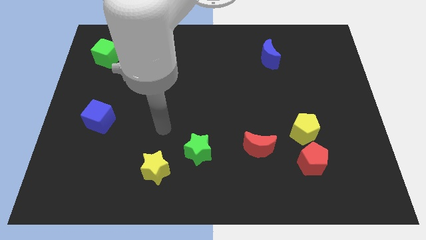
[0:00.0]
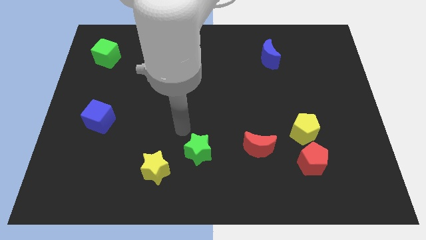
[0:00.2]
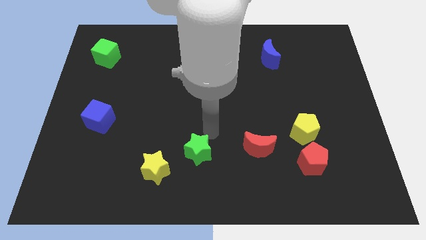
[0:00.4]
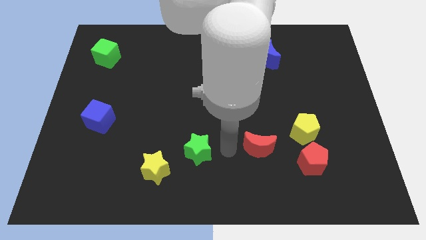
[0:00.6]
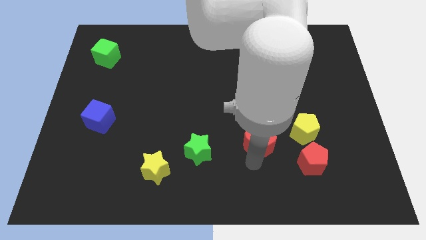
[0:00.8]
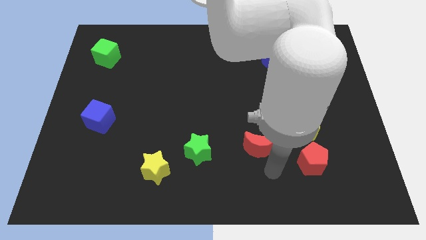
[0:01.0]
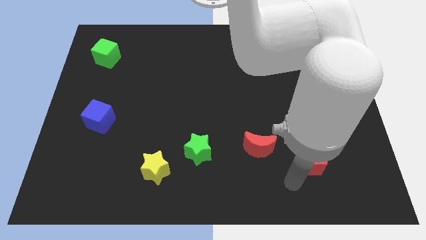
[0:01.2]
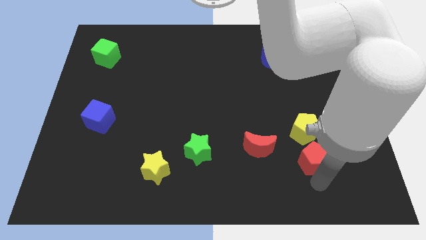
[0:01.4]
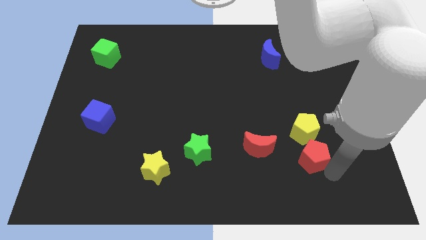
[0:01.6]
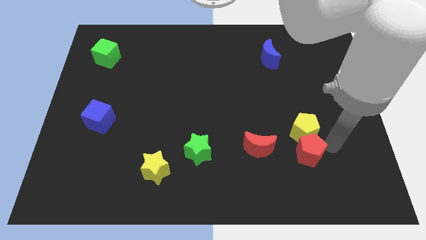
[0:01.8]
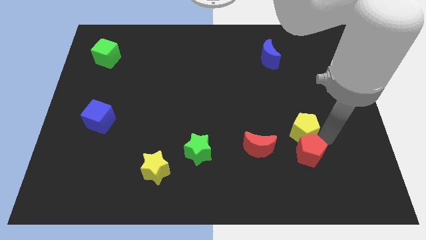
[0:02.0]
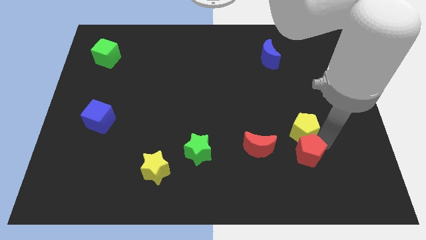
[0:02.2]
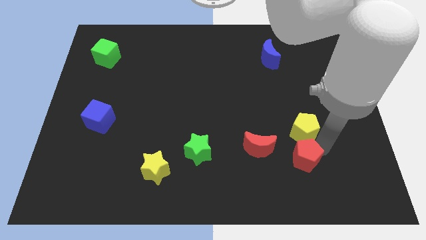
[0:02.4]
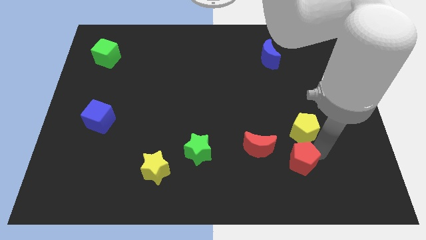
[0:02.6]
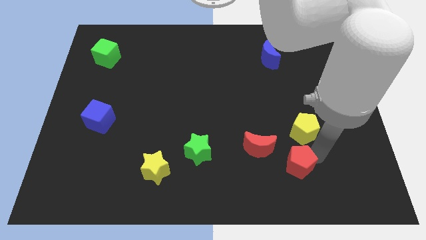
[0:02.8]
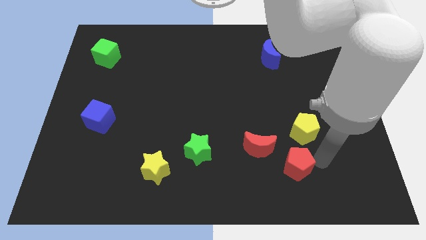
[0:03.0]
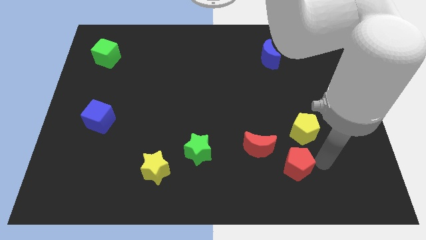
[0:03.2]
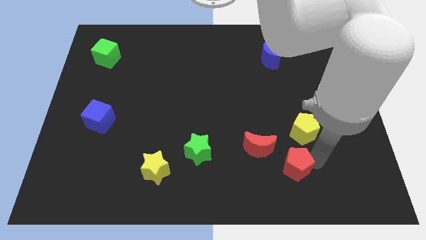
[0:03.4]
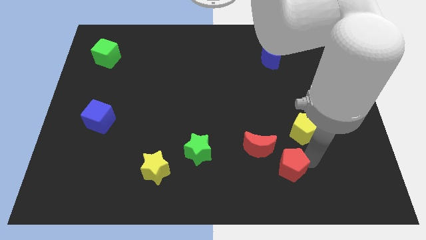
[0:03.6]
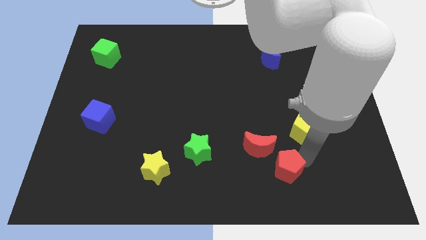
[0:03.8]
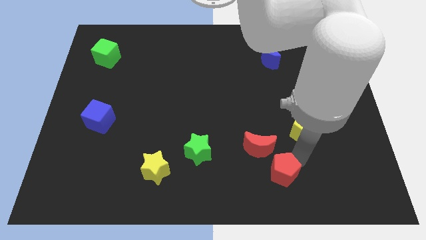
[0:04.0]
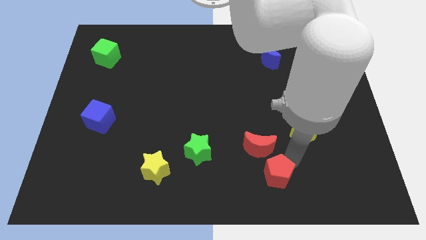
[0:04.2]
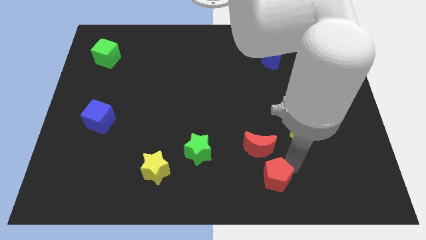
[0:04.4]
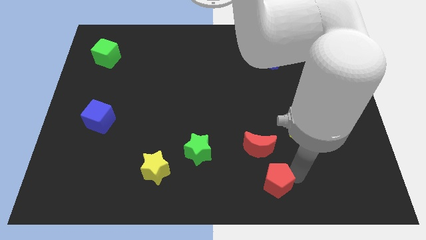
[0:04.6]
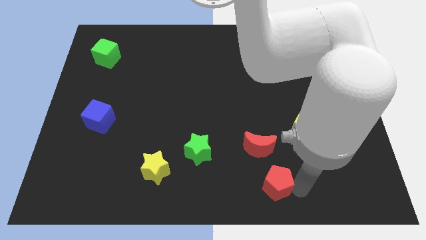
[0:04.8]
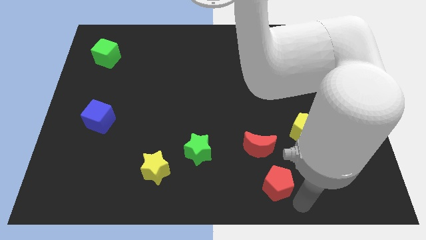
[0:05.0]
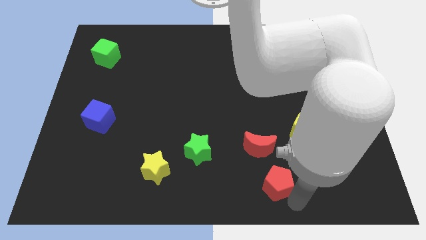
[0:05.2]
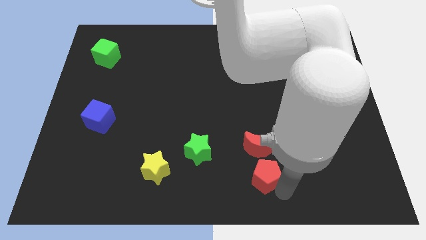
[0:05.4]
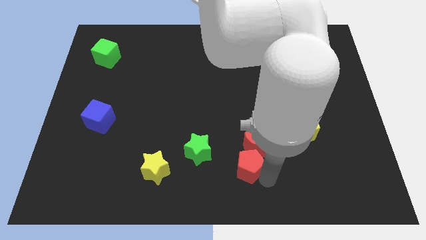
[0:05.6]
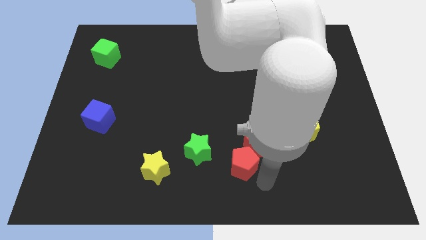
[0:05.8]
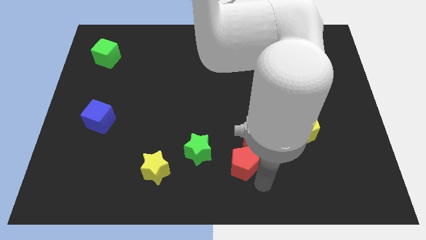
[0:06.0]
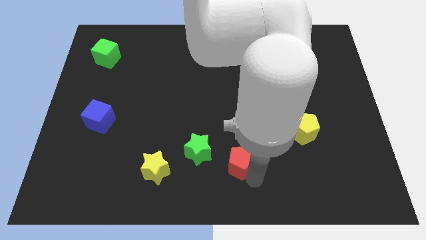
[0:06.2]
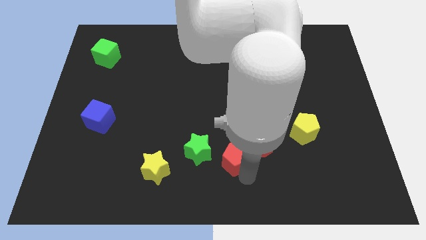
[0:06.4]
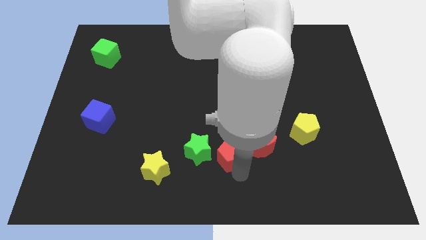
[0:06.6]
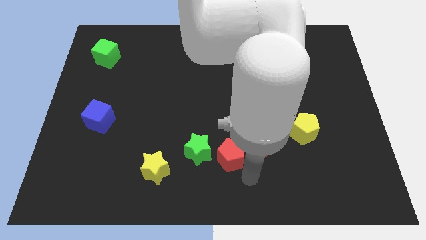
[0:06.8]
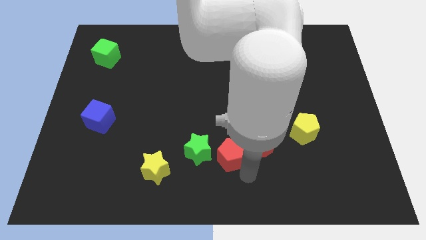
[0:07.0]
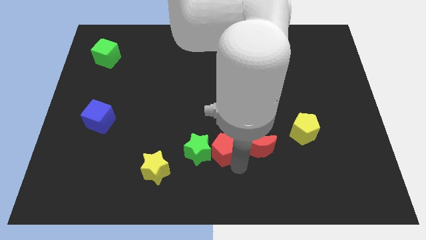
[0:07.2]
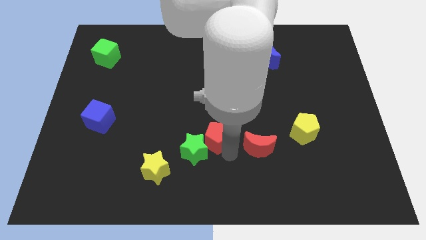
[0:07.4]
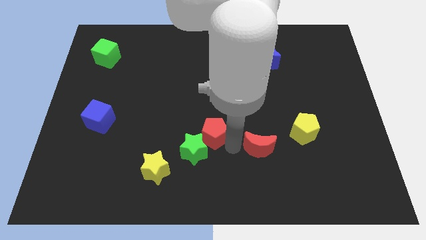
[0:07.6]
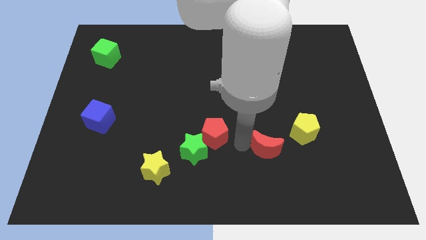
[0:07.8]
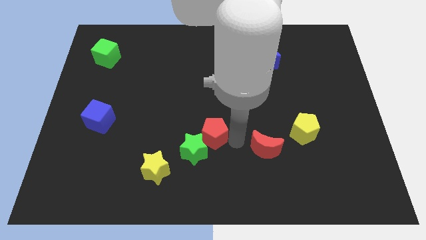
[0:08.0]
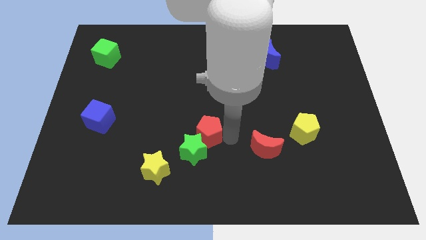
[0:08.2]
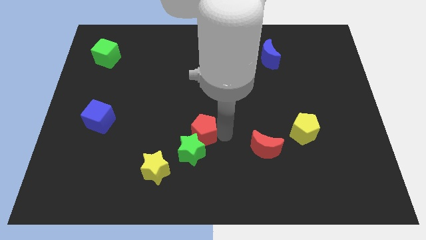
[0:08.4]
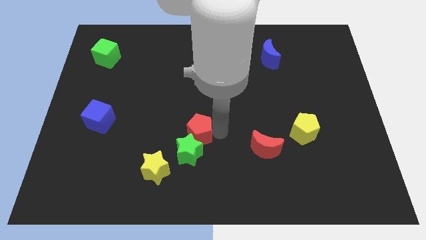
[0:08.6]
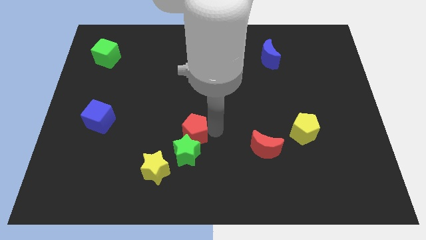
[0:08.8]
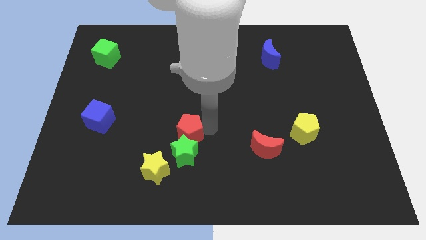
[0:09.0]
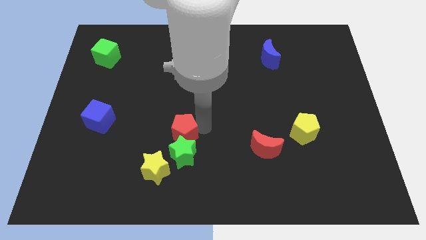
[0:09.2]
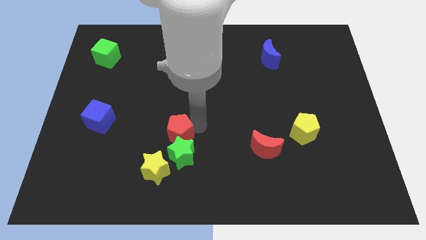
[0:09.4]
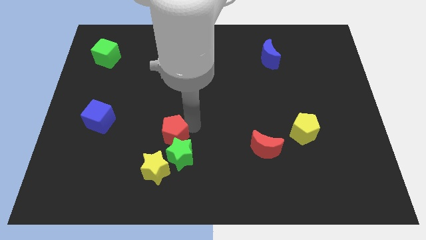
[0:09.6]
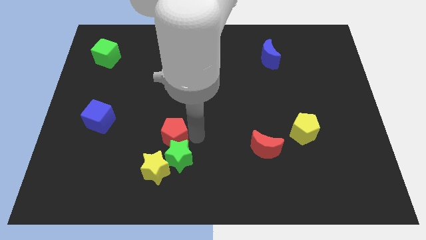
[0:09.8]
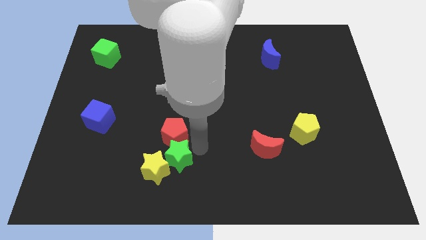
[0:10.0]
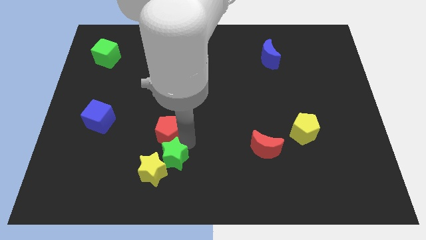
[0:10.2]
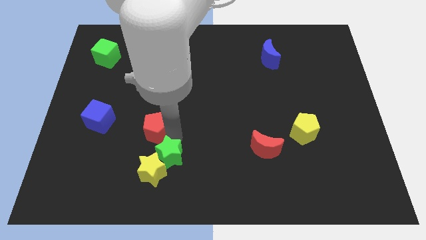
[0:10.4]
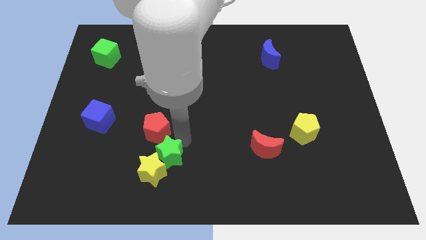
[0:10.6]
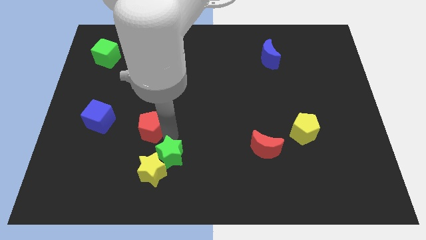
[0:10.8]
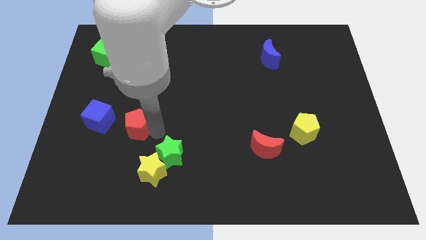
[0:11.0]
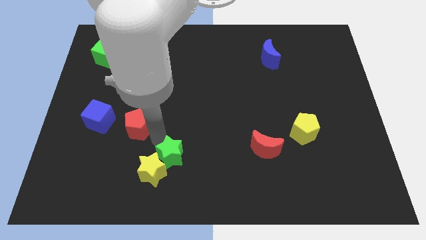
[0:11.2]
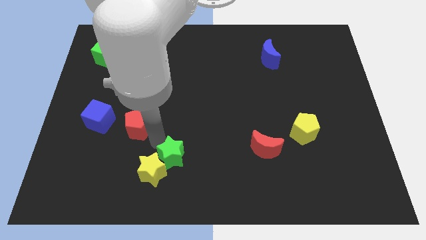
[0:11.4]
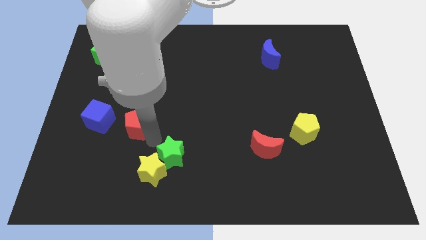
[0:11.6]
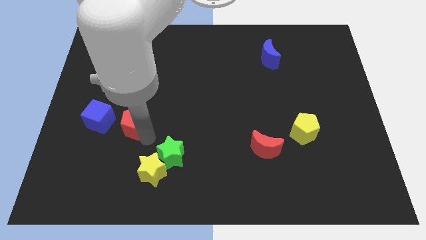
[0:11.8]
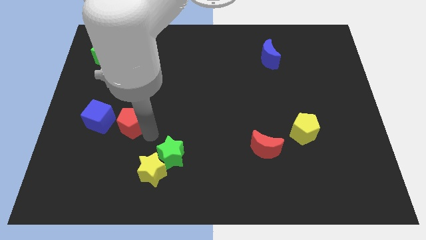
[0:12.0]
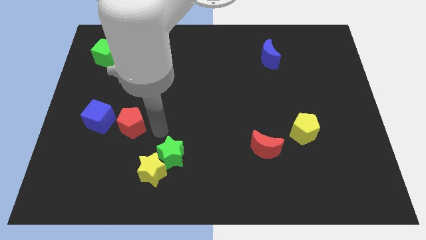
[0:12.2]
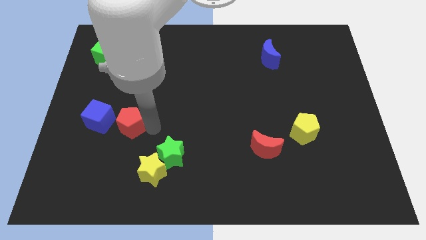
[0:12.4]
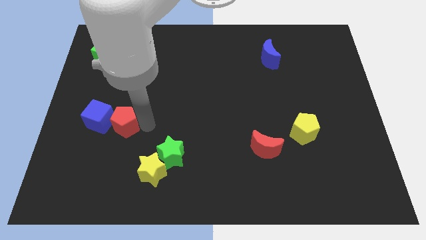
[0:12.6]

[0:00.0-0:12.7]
slide the red pentagon close to the blue cube

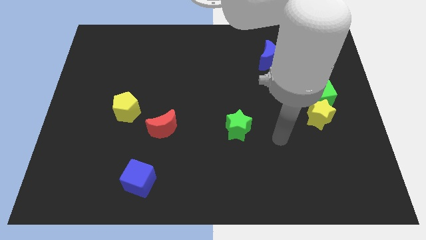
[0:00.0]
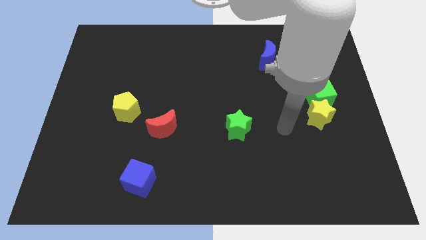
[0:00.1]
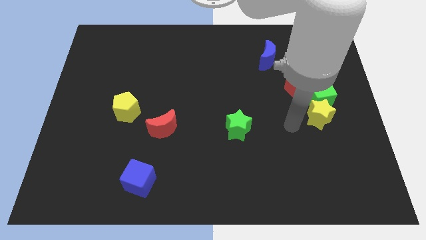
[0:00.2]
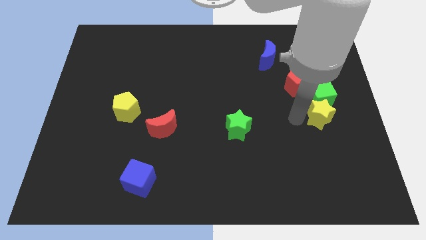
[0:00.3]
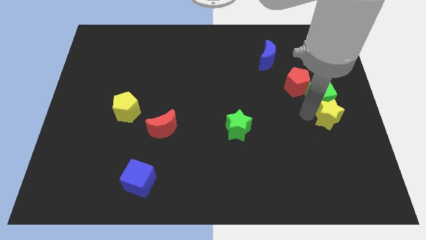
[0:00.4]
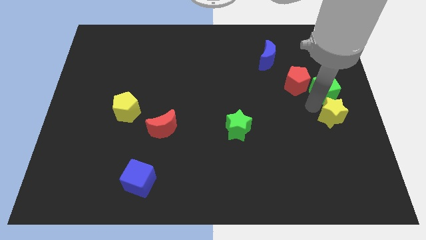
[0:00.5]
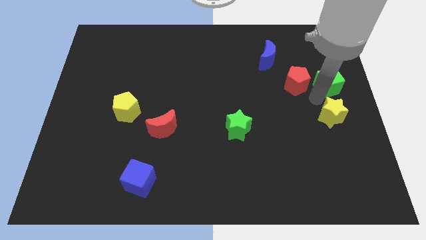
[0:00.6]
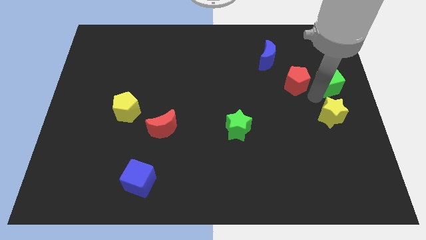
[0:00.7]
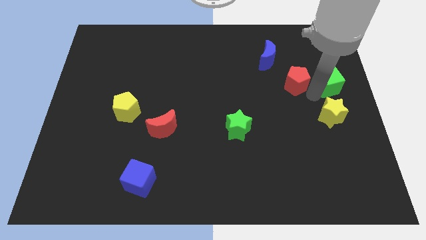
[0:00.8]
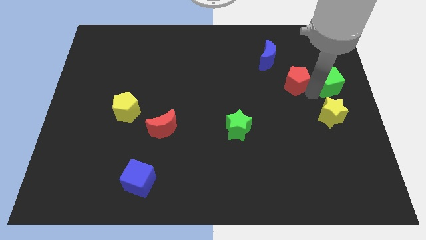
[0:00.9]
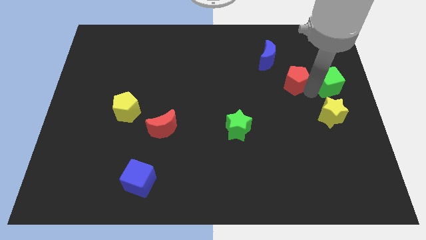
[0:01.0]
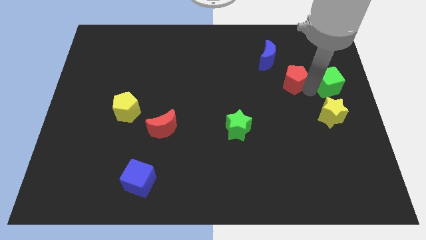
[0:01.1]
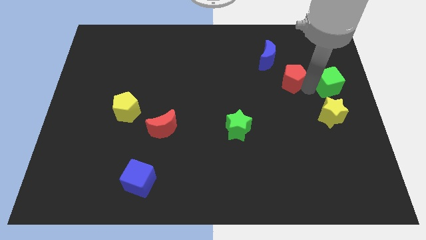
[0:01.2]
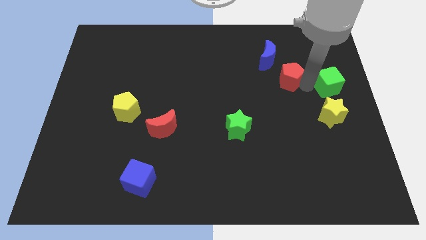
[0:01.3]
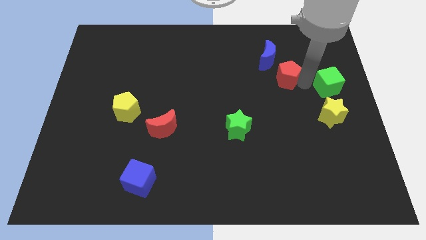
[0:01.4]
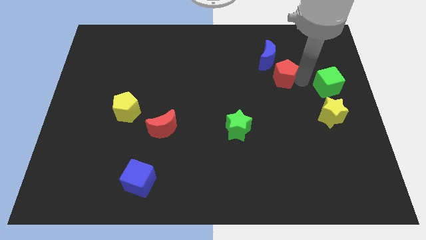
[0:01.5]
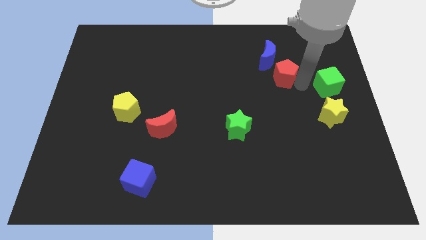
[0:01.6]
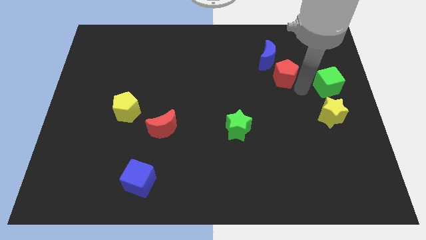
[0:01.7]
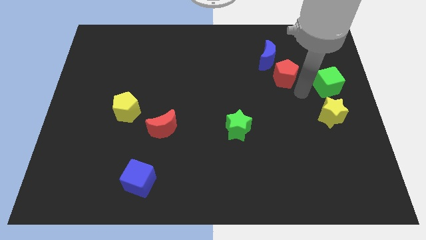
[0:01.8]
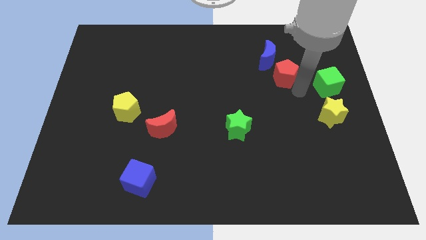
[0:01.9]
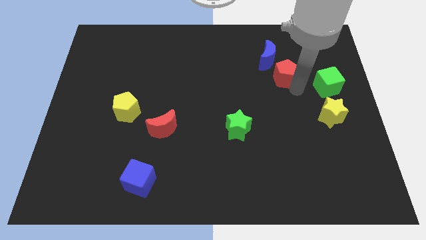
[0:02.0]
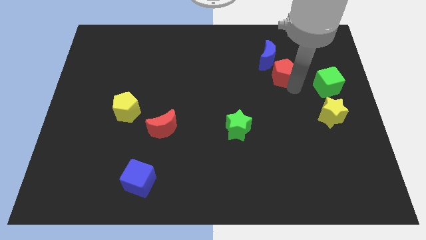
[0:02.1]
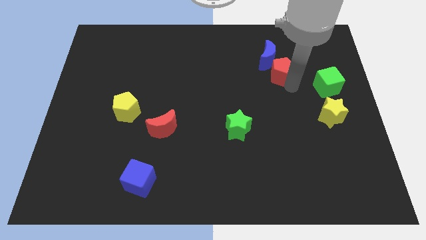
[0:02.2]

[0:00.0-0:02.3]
push the red pentagon close to the blue moon
